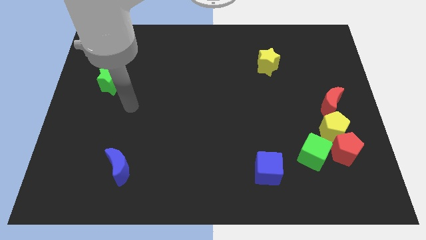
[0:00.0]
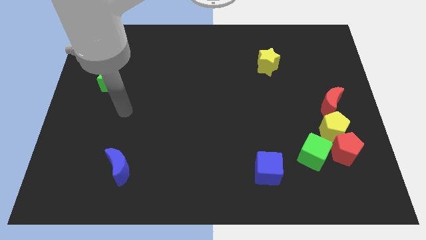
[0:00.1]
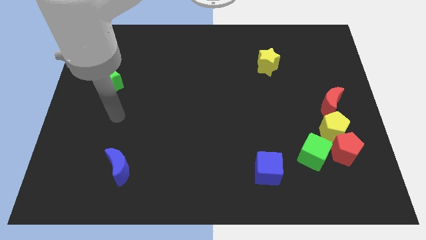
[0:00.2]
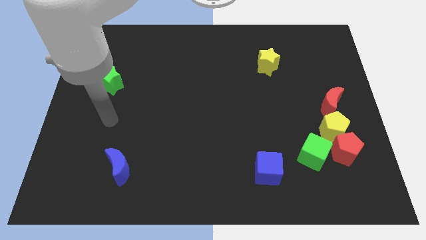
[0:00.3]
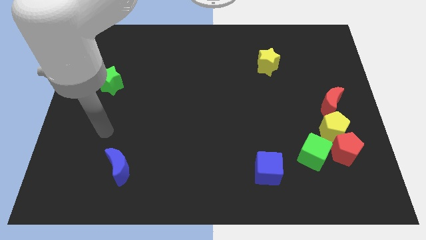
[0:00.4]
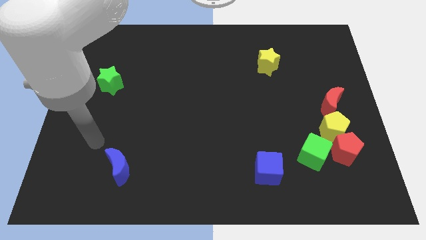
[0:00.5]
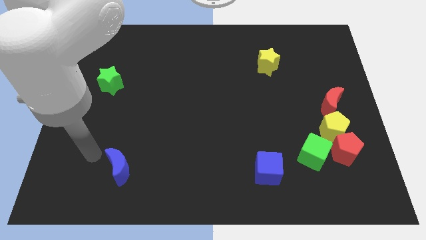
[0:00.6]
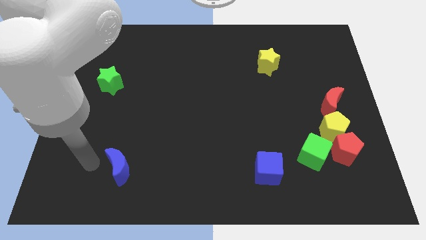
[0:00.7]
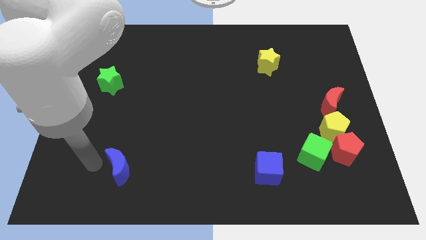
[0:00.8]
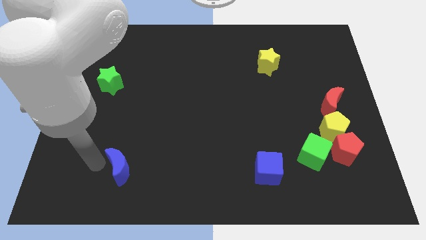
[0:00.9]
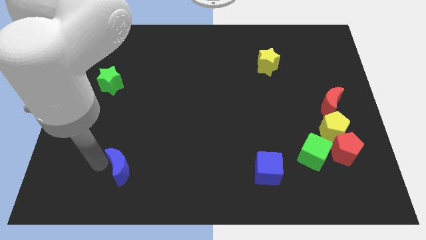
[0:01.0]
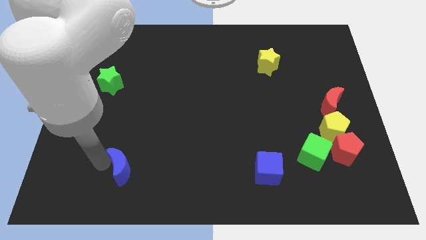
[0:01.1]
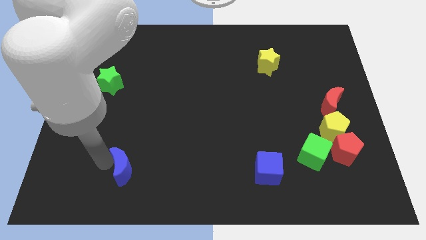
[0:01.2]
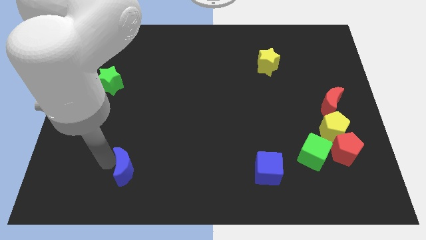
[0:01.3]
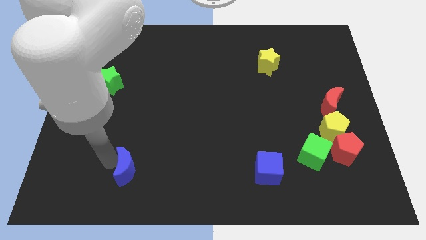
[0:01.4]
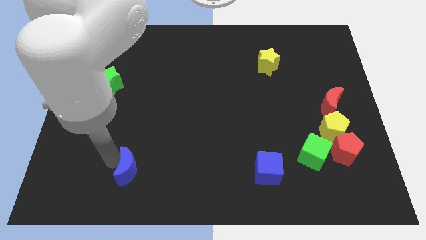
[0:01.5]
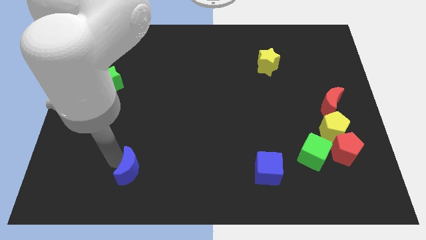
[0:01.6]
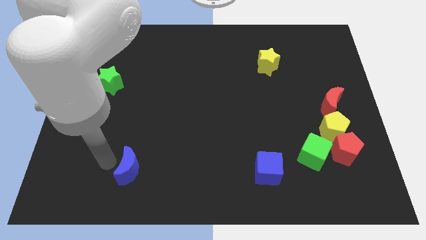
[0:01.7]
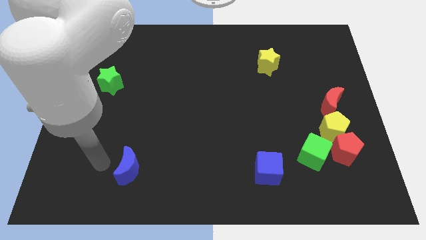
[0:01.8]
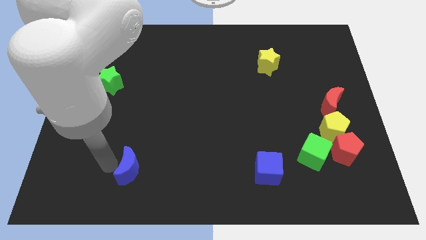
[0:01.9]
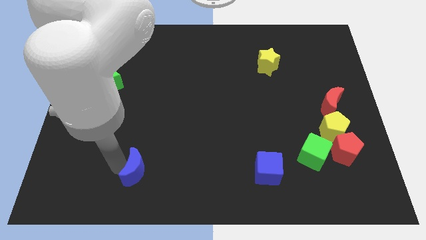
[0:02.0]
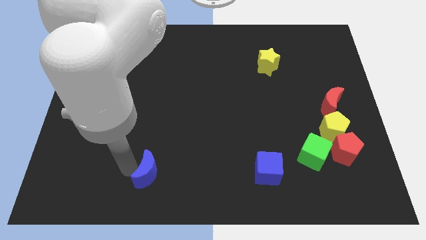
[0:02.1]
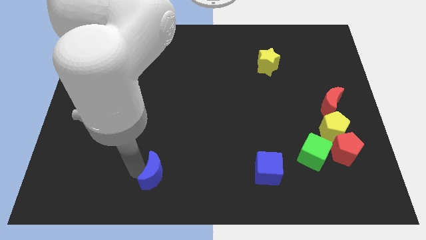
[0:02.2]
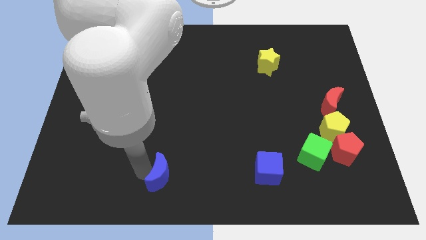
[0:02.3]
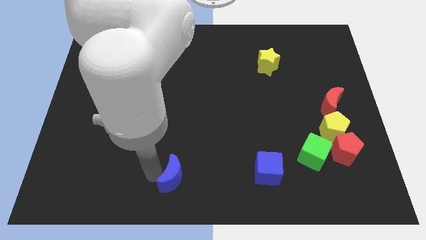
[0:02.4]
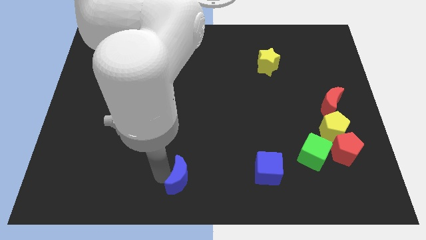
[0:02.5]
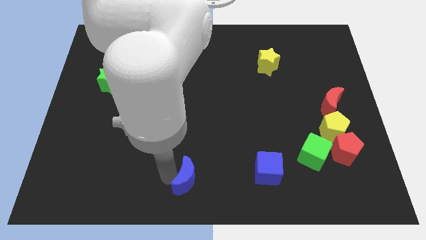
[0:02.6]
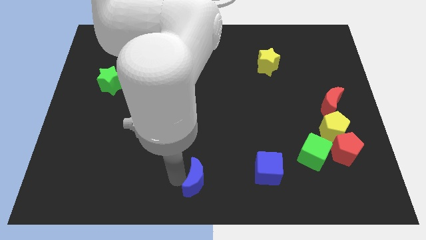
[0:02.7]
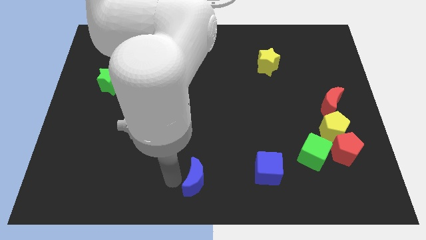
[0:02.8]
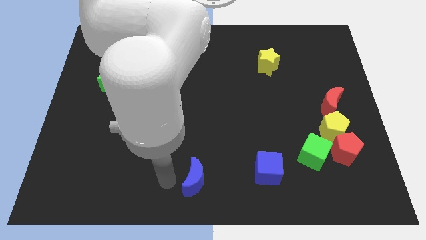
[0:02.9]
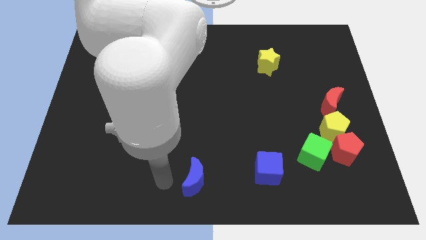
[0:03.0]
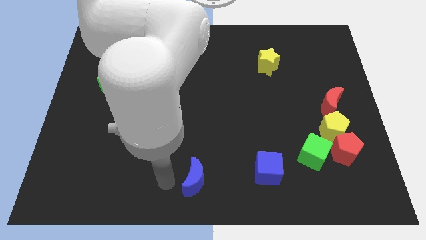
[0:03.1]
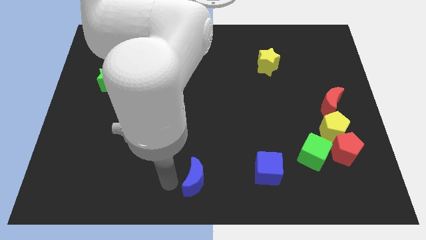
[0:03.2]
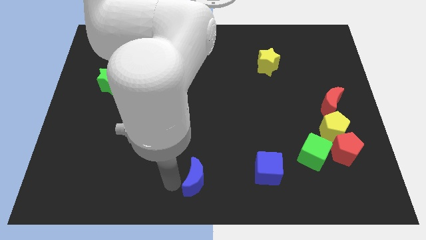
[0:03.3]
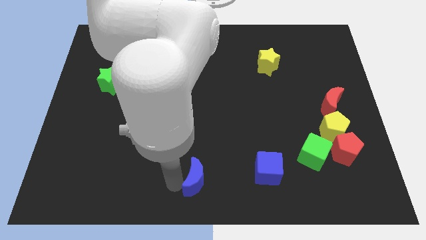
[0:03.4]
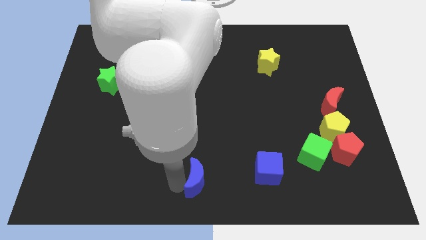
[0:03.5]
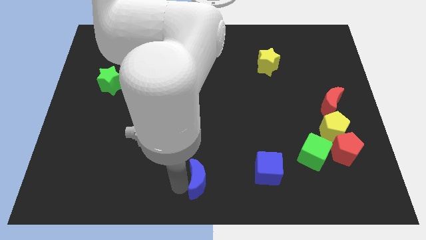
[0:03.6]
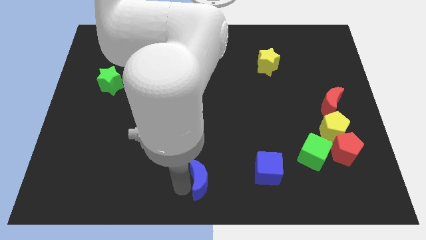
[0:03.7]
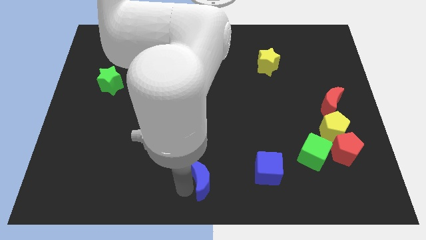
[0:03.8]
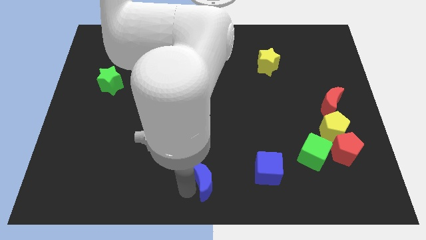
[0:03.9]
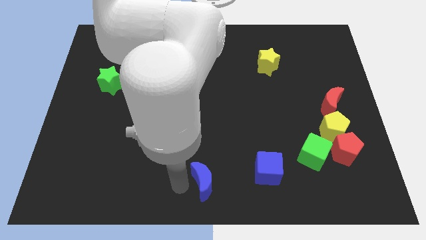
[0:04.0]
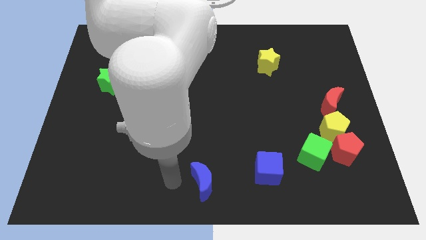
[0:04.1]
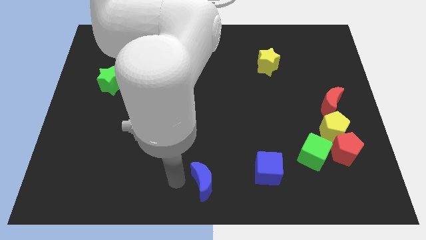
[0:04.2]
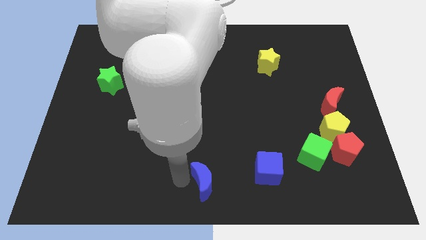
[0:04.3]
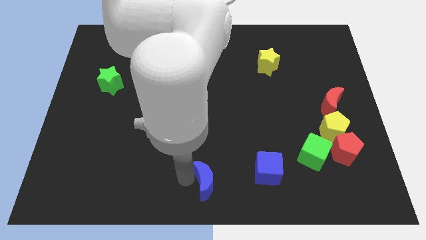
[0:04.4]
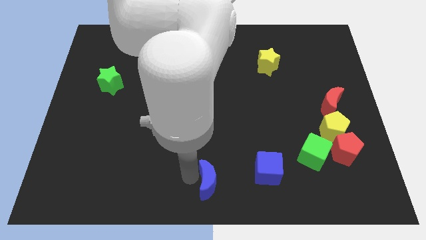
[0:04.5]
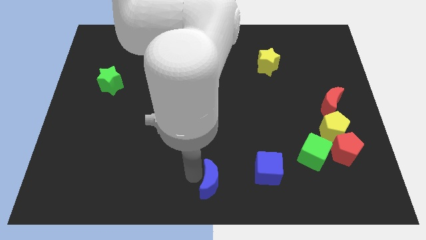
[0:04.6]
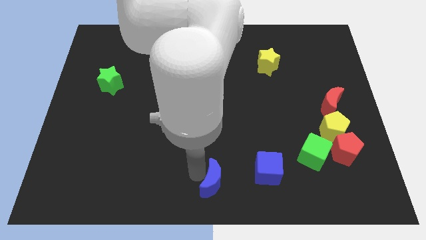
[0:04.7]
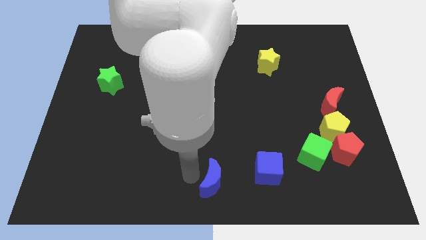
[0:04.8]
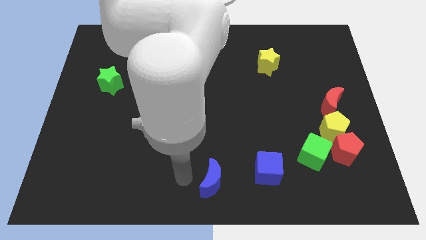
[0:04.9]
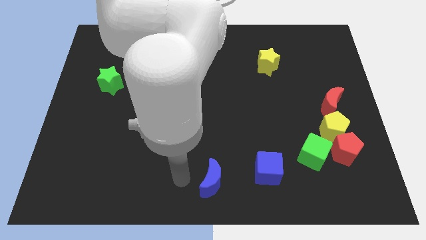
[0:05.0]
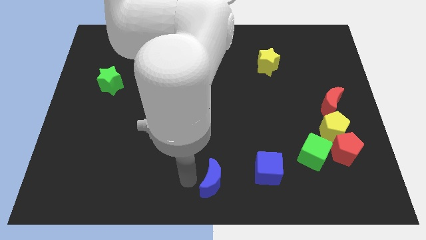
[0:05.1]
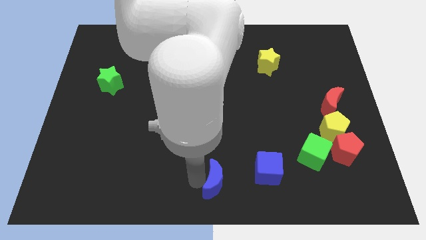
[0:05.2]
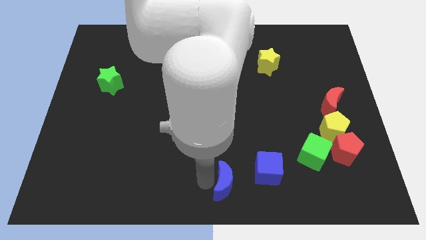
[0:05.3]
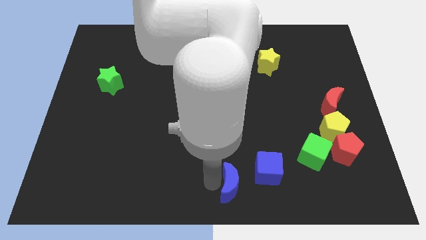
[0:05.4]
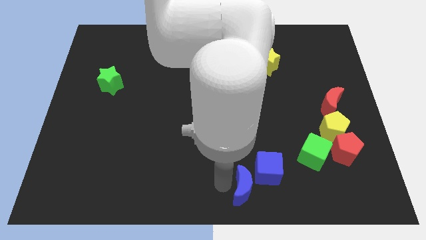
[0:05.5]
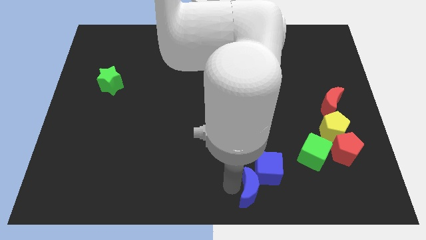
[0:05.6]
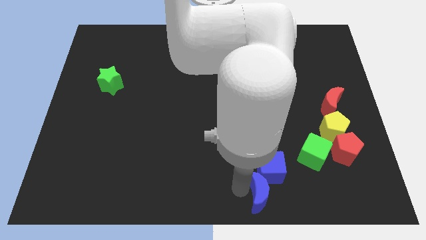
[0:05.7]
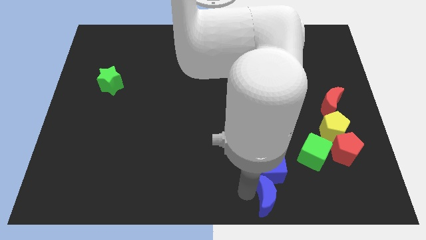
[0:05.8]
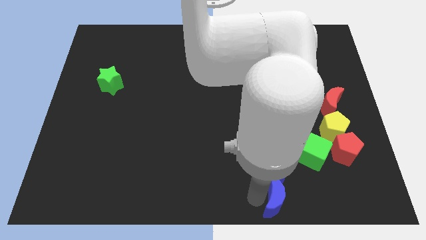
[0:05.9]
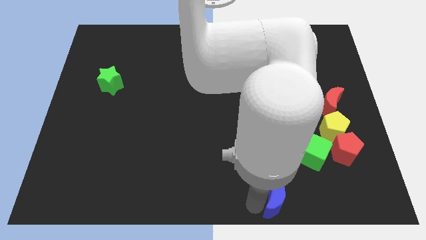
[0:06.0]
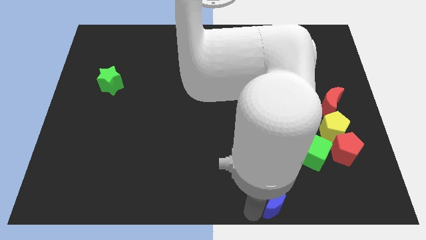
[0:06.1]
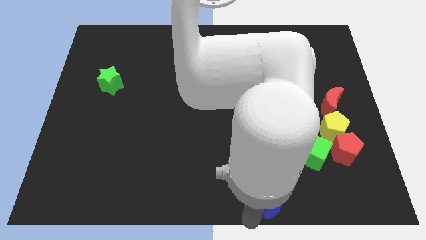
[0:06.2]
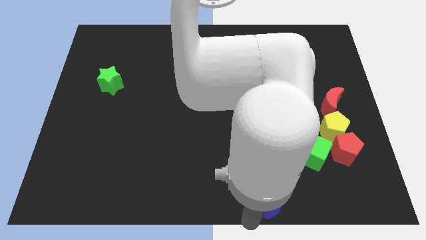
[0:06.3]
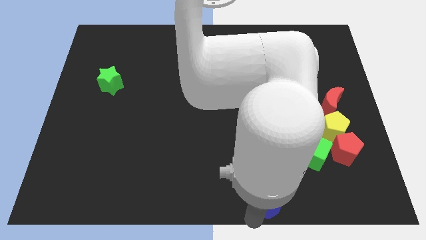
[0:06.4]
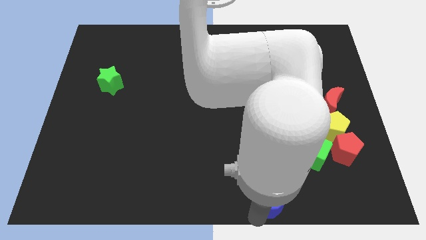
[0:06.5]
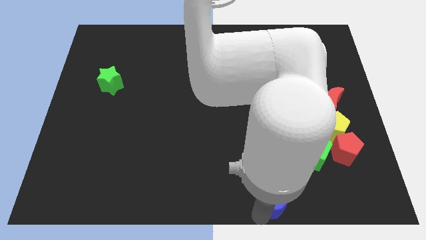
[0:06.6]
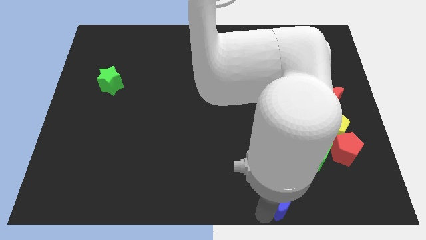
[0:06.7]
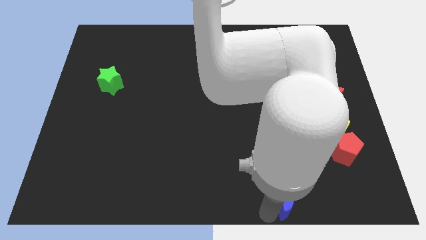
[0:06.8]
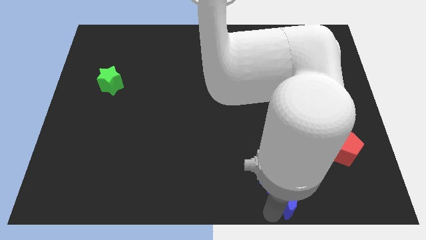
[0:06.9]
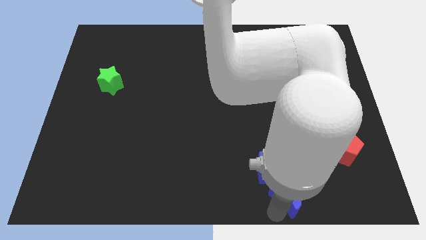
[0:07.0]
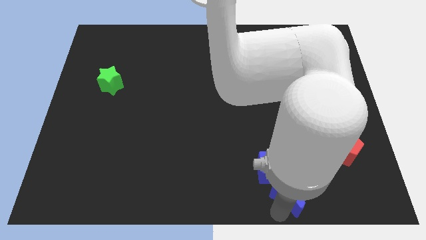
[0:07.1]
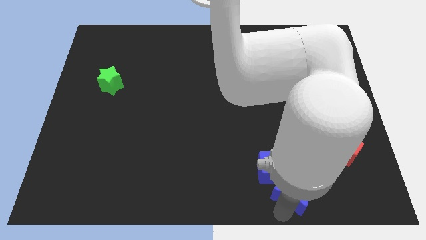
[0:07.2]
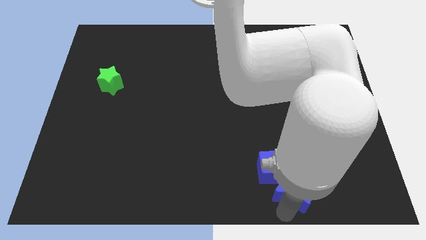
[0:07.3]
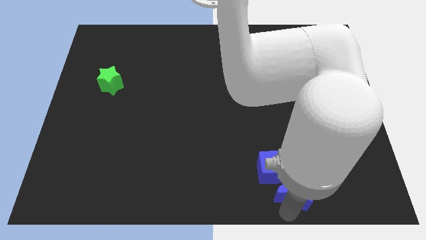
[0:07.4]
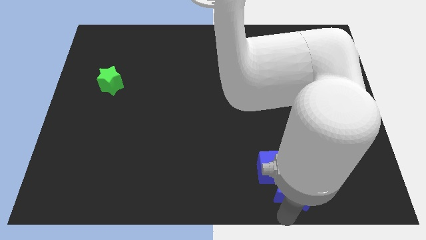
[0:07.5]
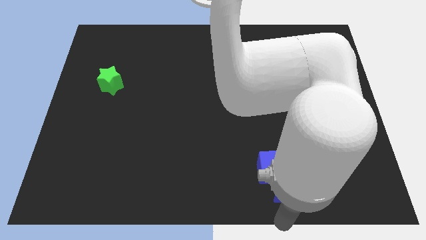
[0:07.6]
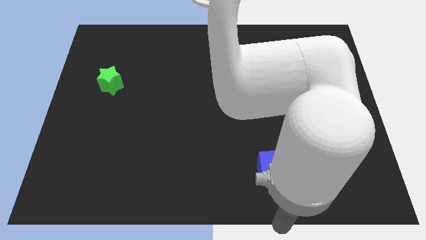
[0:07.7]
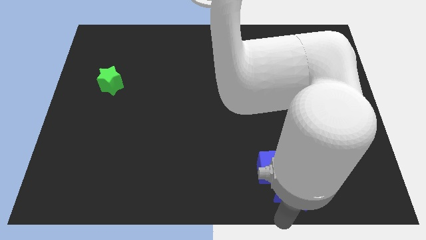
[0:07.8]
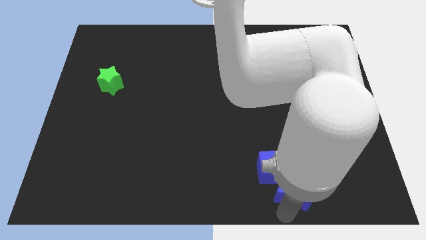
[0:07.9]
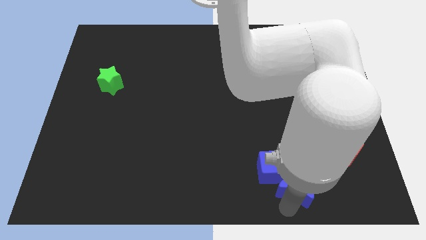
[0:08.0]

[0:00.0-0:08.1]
put the blue moon just right of the blue cube
